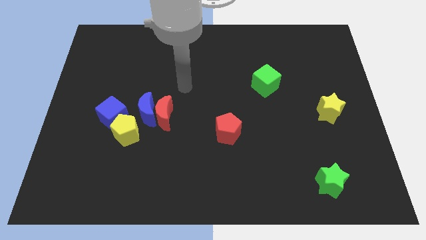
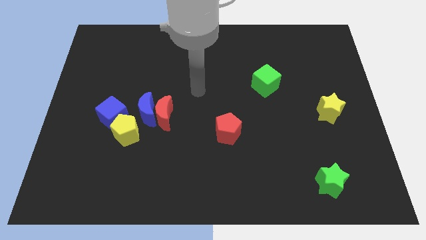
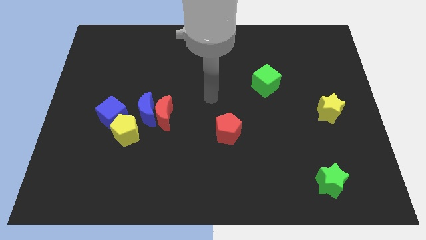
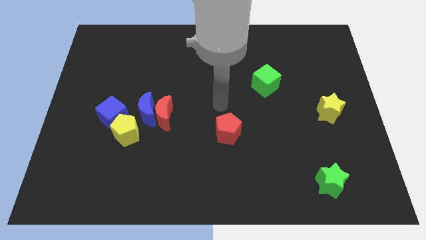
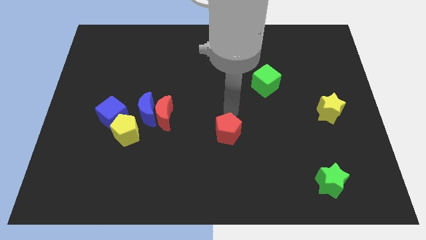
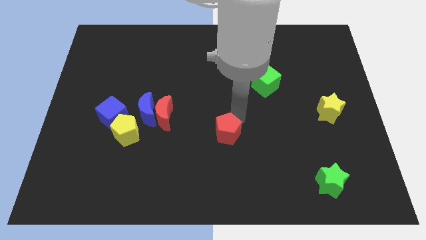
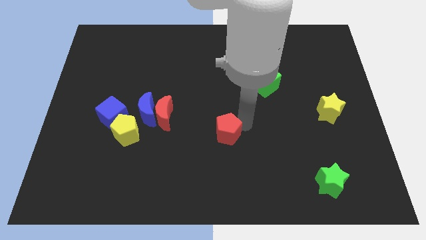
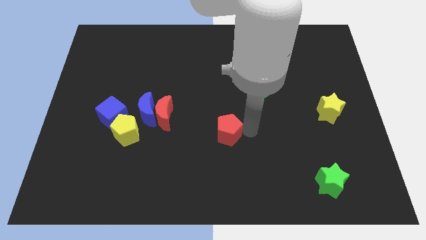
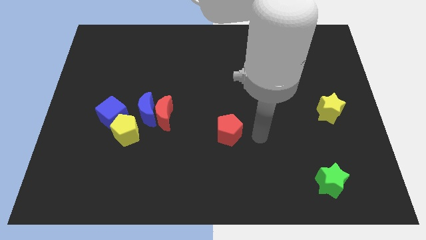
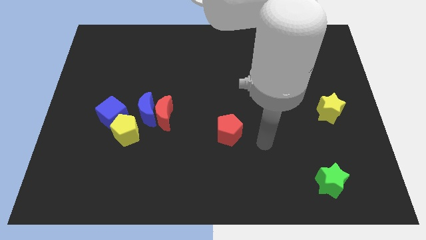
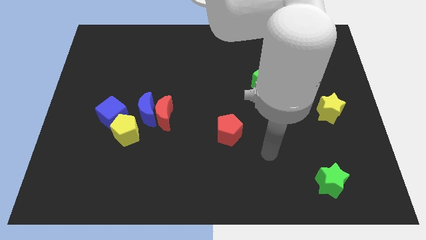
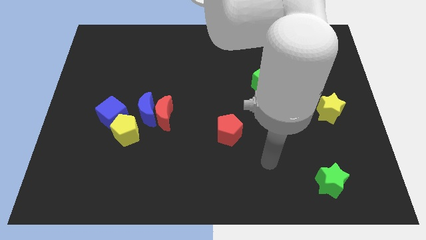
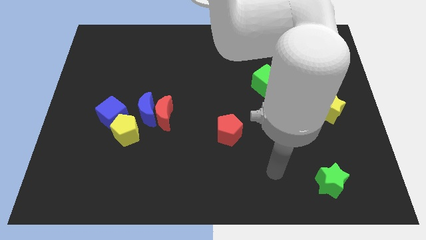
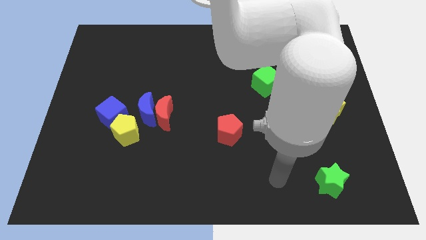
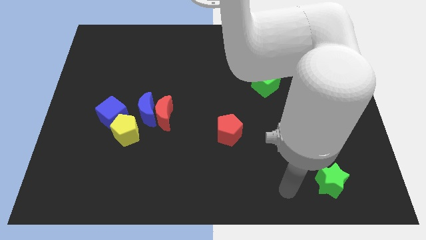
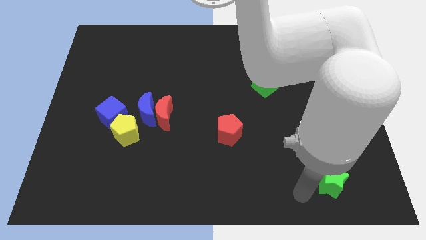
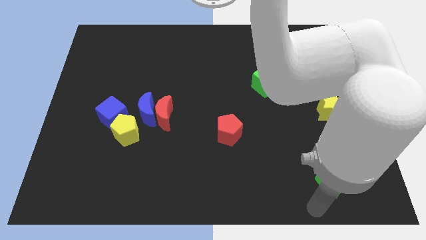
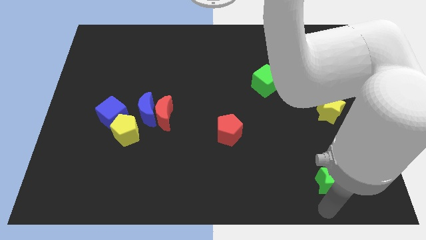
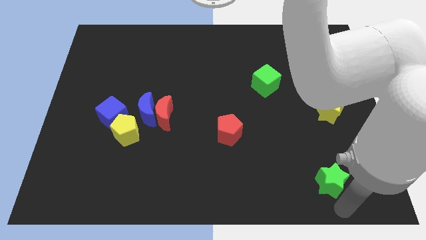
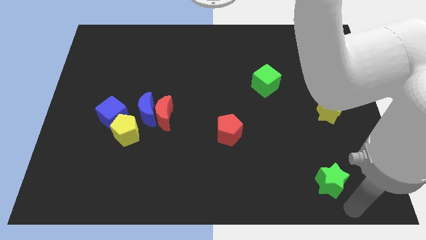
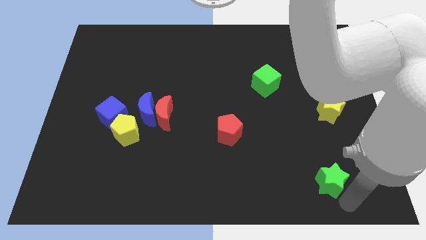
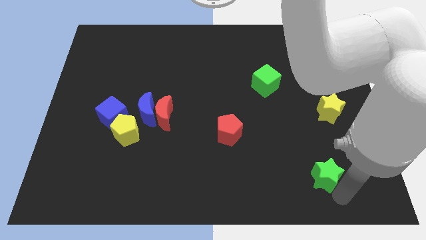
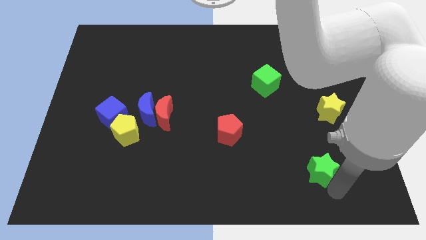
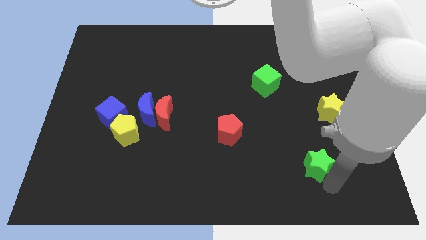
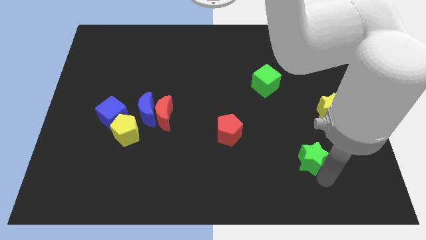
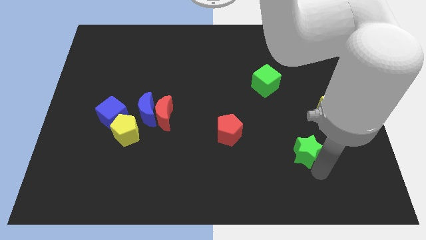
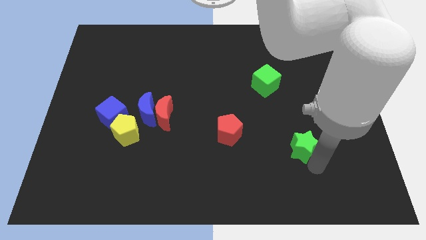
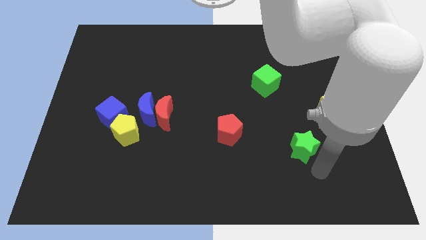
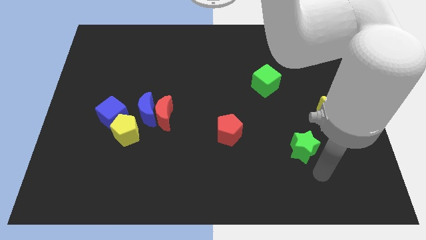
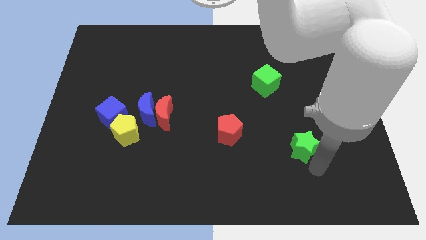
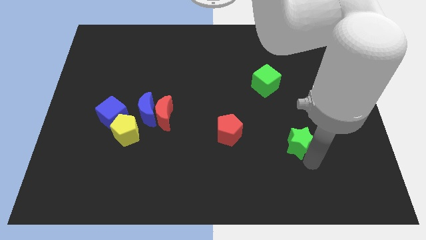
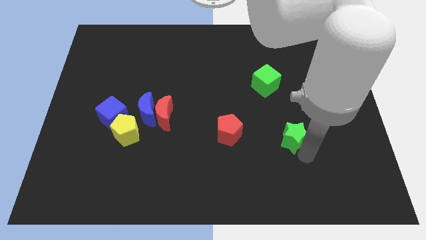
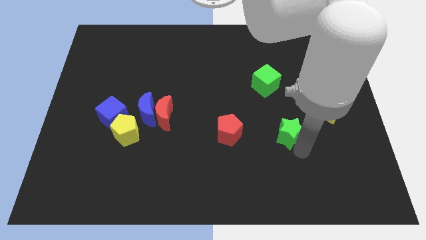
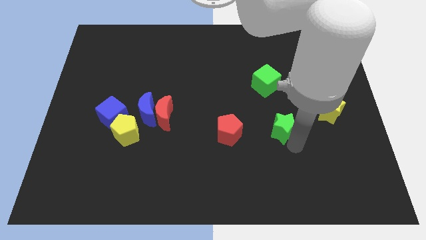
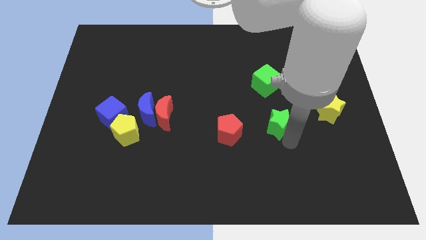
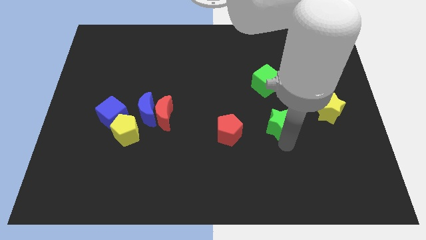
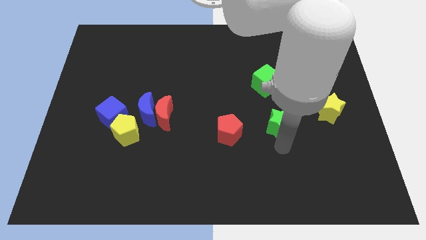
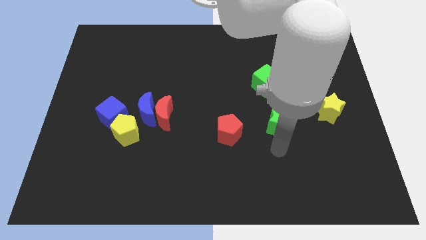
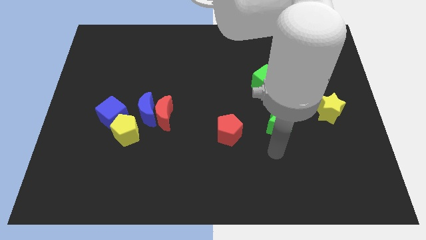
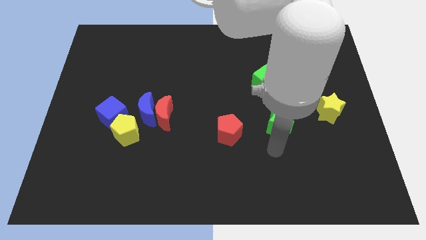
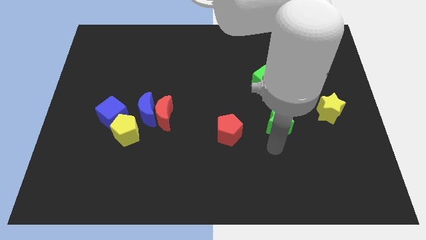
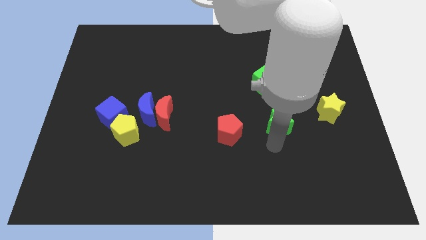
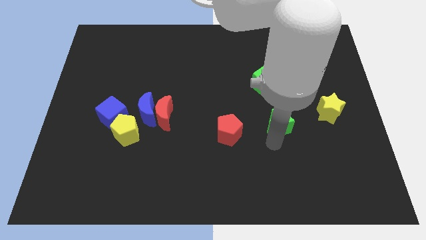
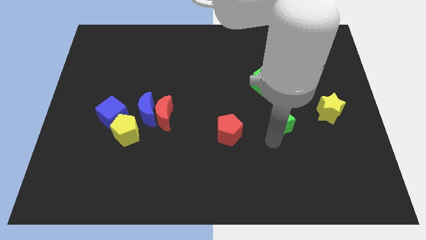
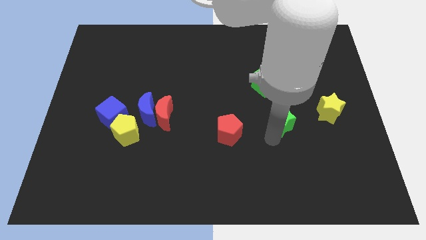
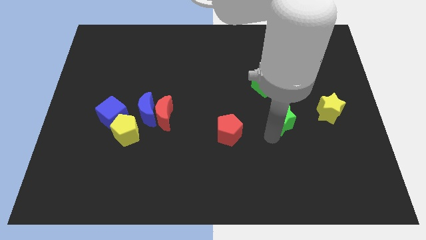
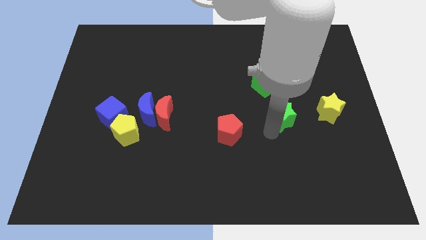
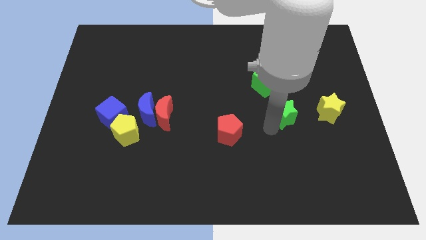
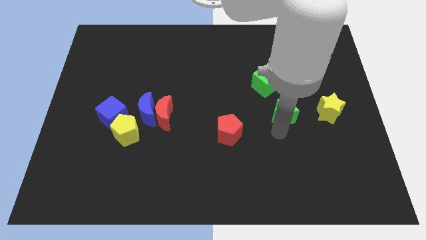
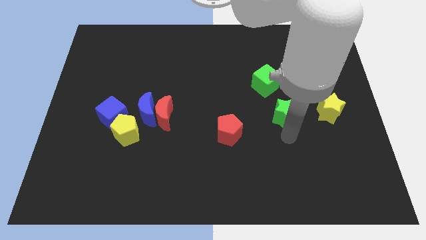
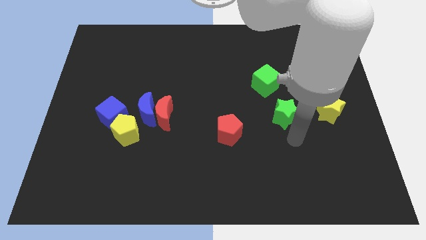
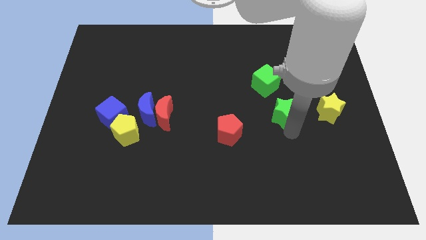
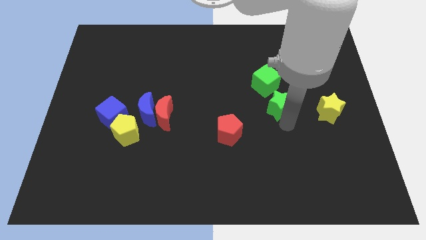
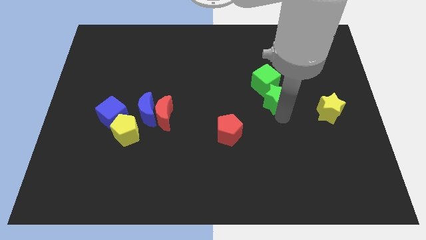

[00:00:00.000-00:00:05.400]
slide the green star next to the green cube
